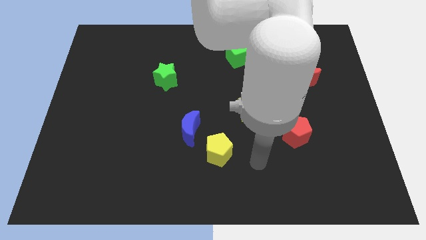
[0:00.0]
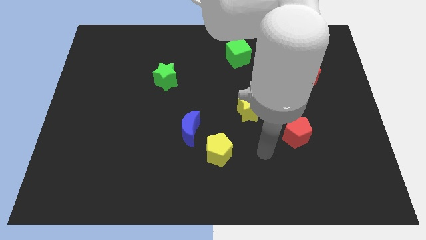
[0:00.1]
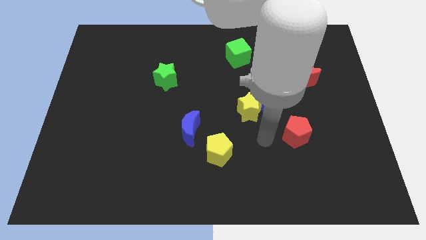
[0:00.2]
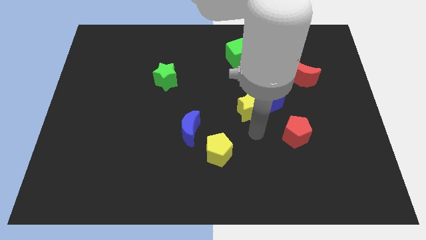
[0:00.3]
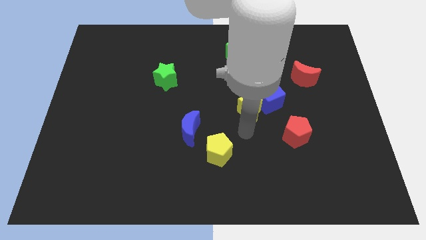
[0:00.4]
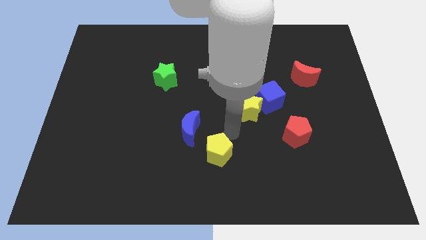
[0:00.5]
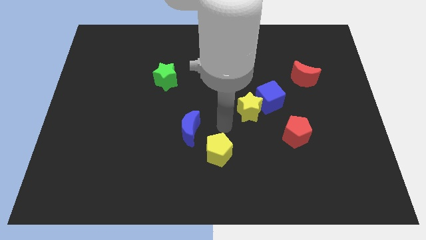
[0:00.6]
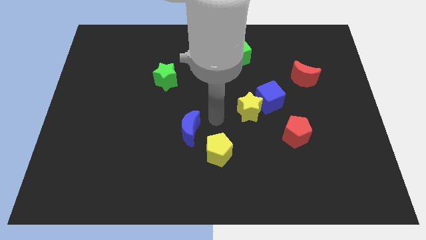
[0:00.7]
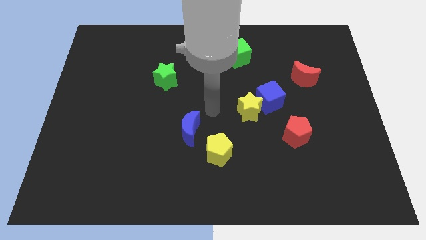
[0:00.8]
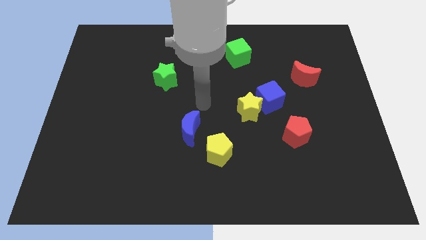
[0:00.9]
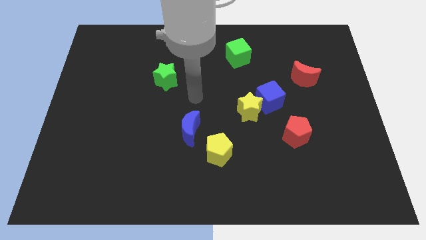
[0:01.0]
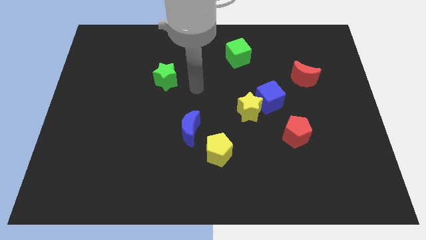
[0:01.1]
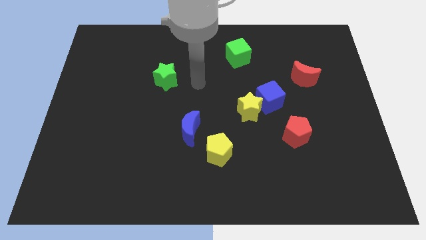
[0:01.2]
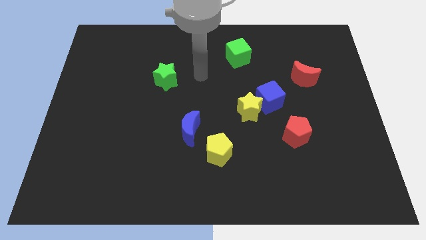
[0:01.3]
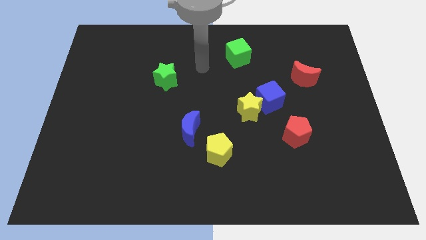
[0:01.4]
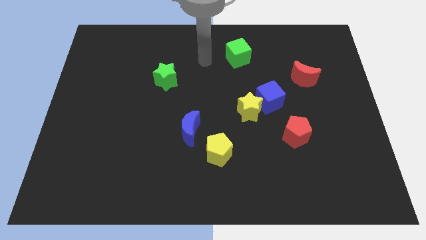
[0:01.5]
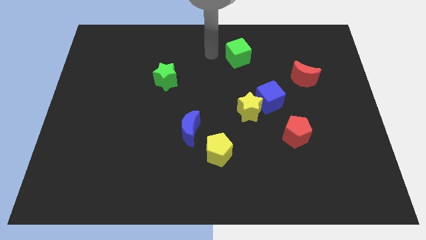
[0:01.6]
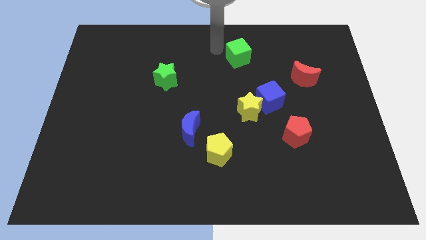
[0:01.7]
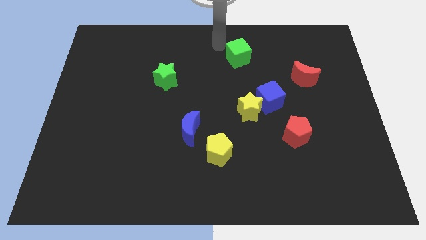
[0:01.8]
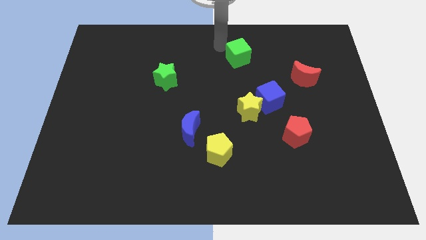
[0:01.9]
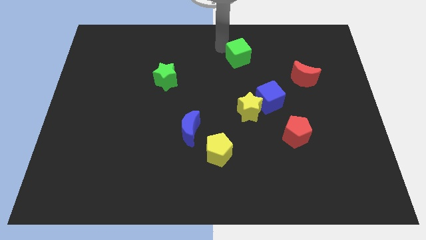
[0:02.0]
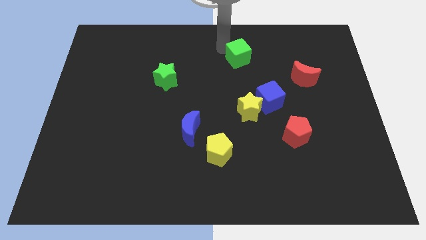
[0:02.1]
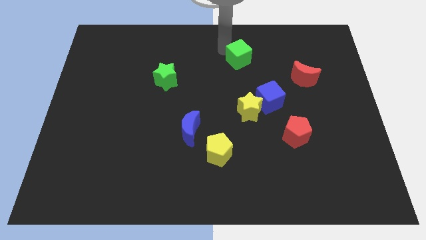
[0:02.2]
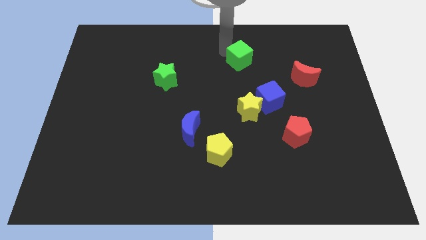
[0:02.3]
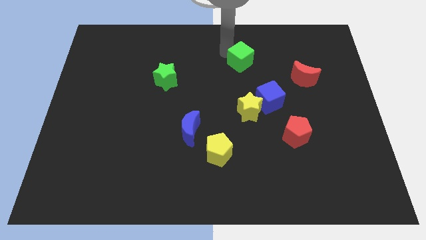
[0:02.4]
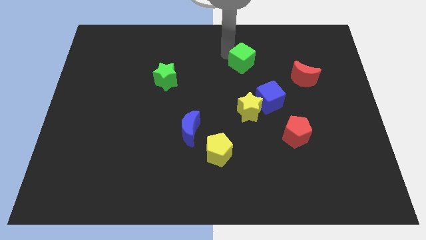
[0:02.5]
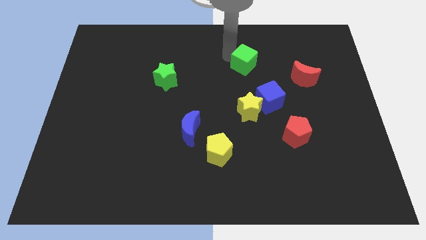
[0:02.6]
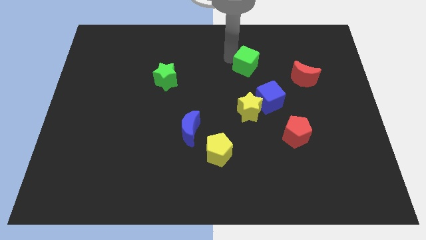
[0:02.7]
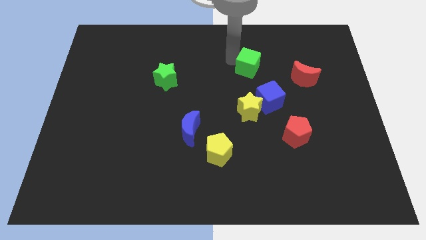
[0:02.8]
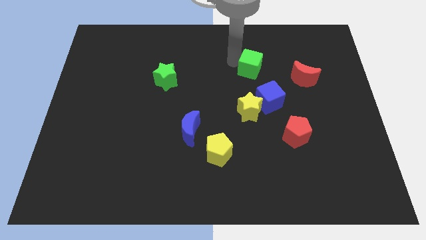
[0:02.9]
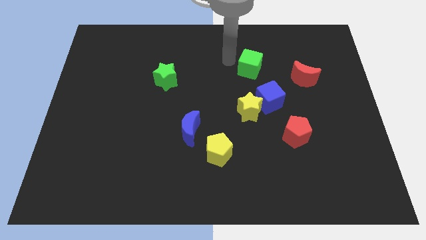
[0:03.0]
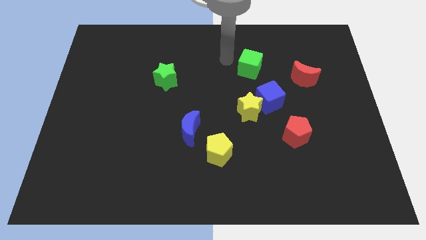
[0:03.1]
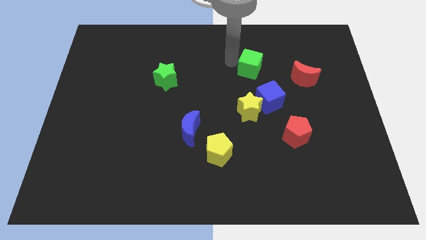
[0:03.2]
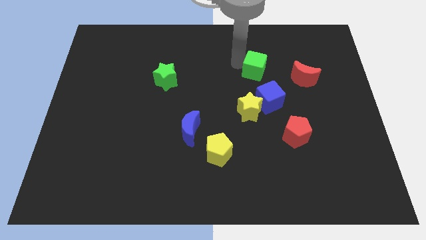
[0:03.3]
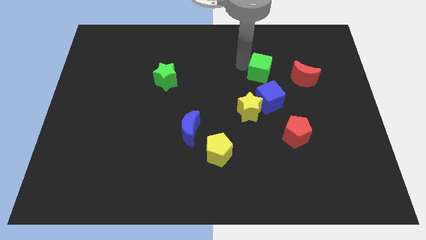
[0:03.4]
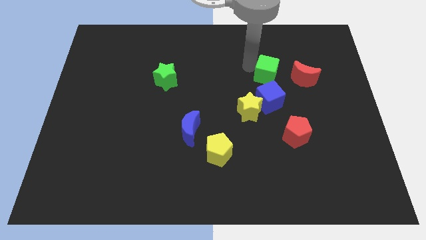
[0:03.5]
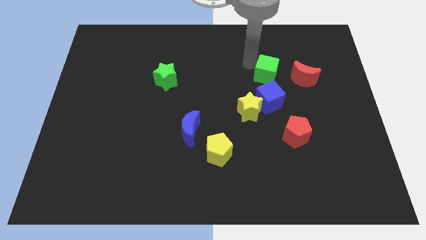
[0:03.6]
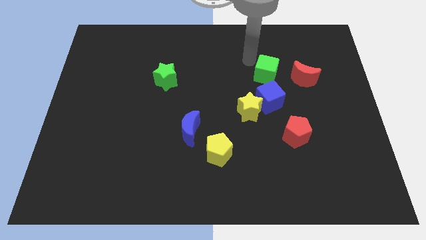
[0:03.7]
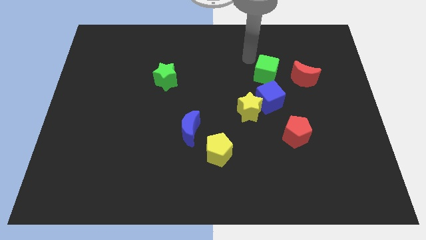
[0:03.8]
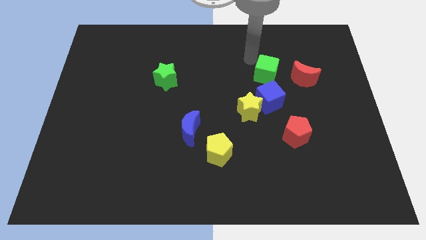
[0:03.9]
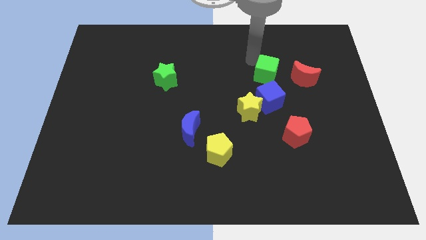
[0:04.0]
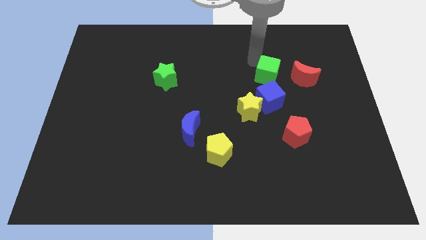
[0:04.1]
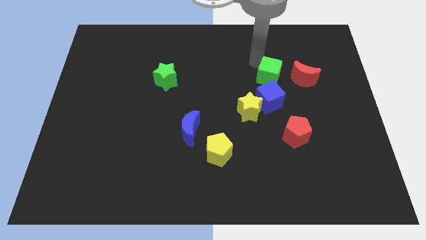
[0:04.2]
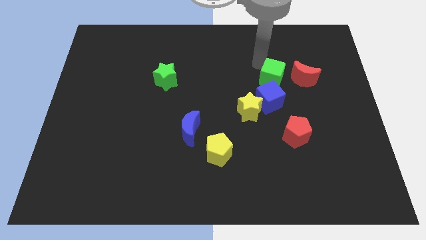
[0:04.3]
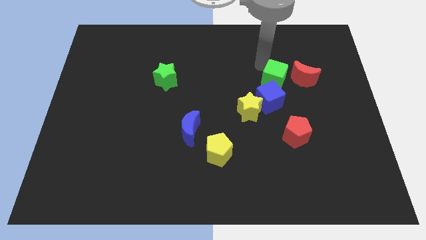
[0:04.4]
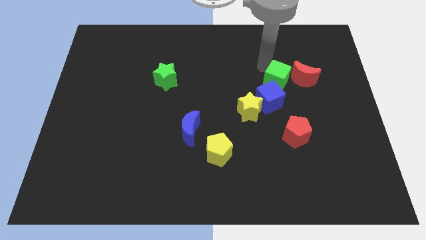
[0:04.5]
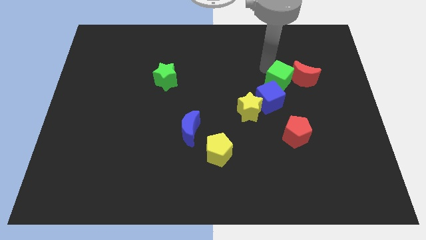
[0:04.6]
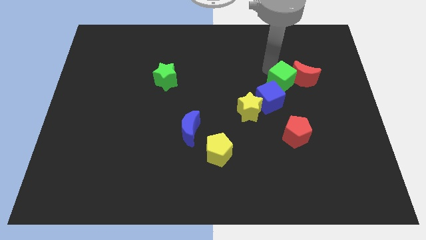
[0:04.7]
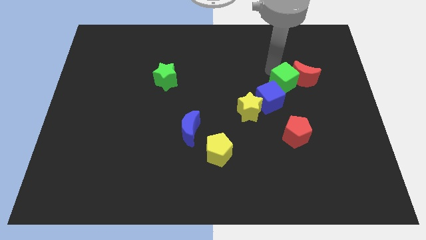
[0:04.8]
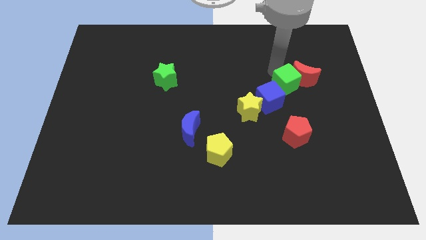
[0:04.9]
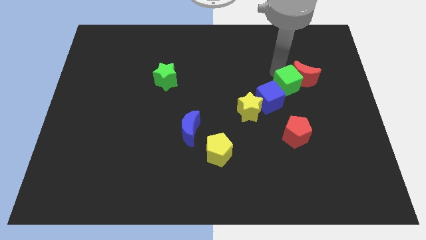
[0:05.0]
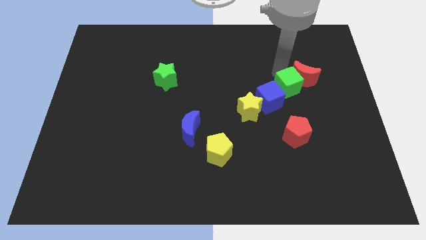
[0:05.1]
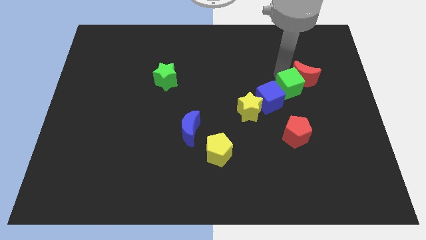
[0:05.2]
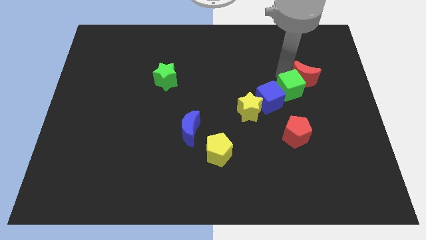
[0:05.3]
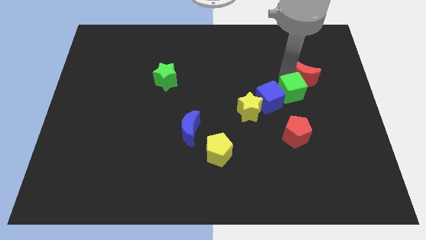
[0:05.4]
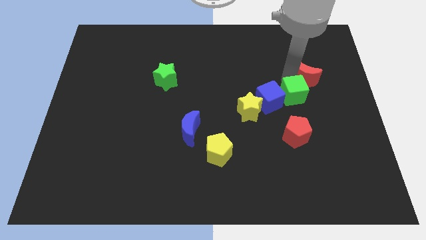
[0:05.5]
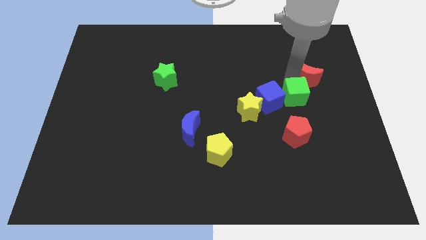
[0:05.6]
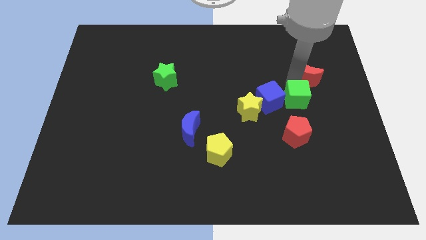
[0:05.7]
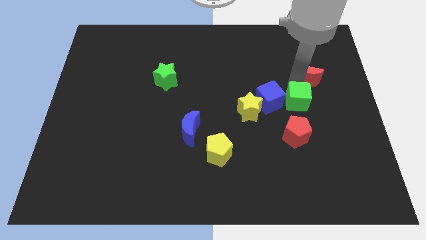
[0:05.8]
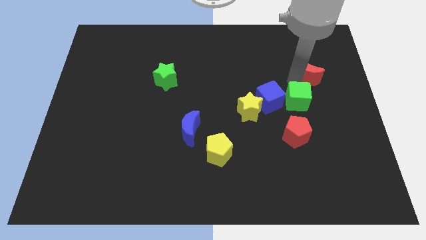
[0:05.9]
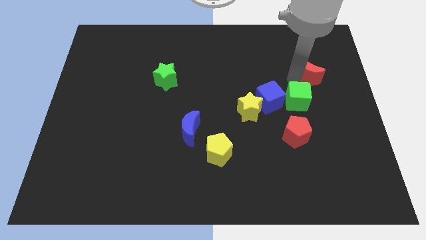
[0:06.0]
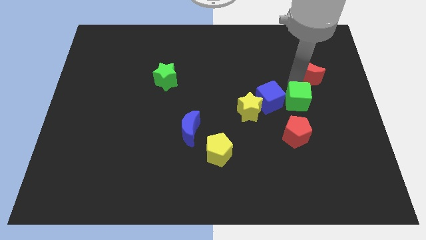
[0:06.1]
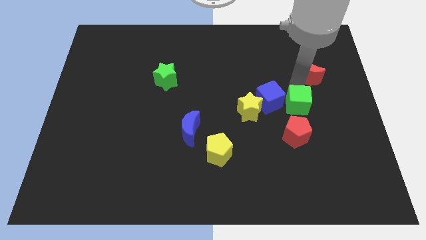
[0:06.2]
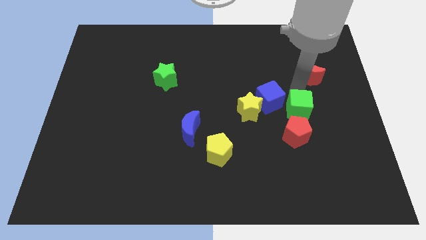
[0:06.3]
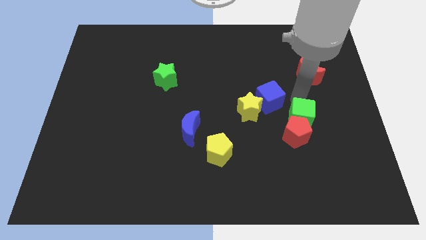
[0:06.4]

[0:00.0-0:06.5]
slide the green cube to the red pentagon

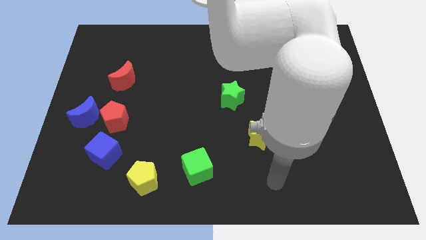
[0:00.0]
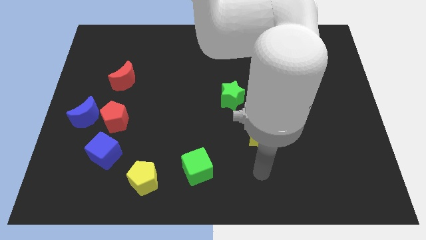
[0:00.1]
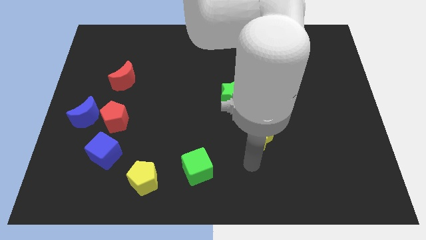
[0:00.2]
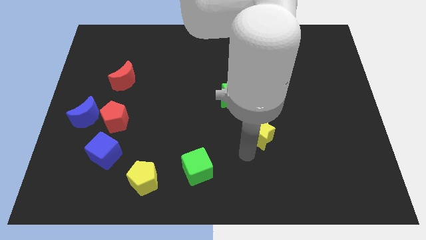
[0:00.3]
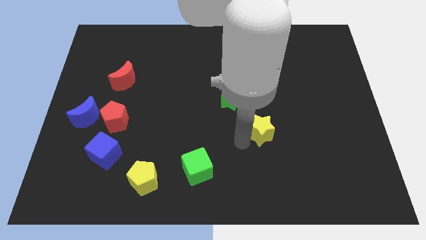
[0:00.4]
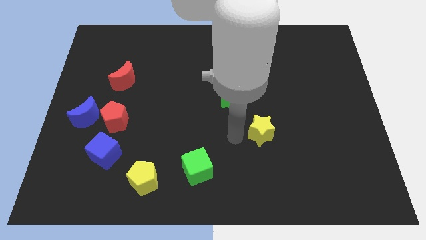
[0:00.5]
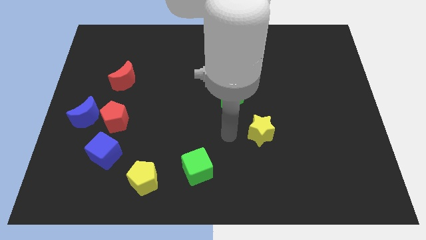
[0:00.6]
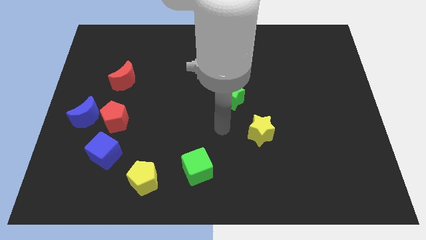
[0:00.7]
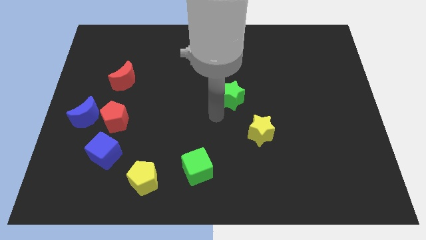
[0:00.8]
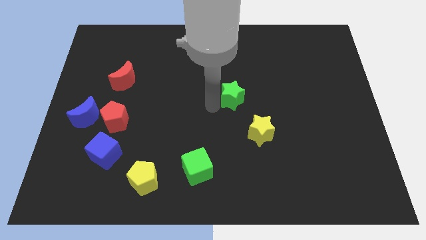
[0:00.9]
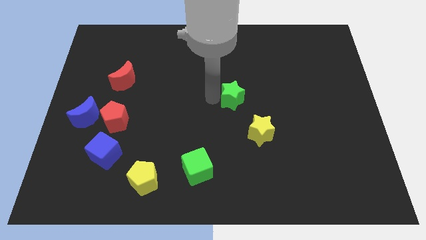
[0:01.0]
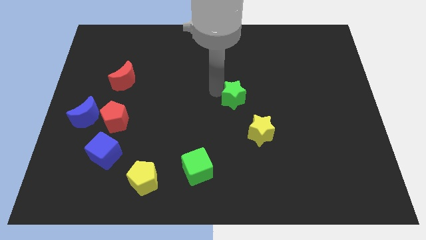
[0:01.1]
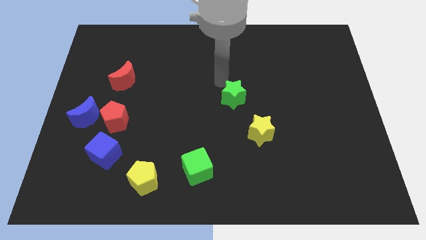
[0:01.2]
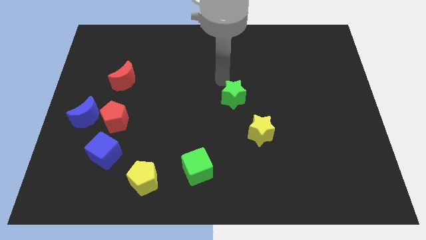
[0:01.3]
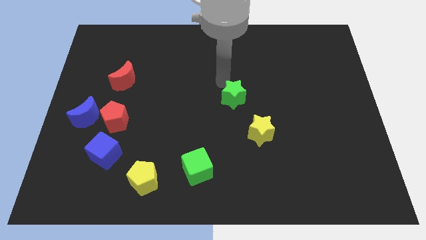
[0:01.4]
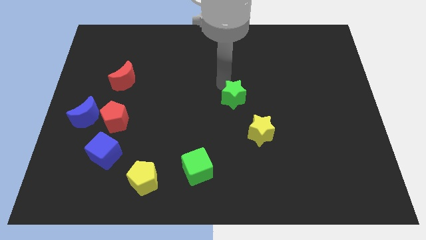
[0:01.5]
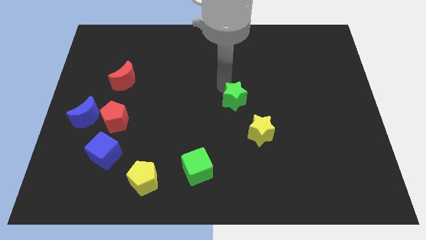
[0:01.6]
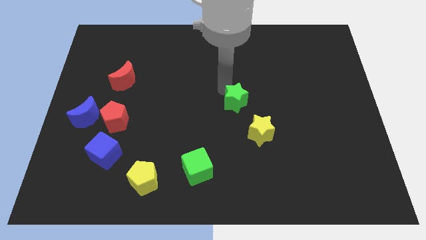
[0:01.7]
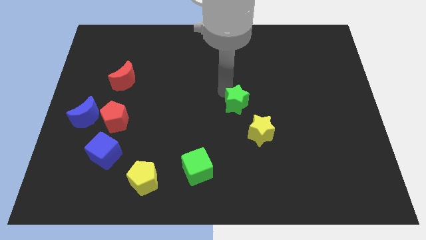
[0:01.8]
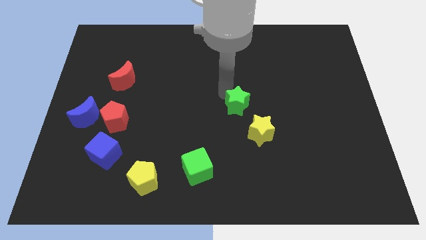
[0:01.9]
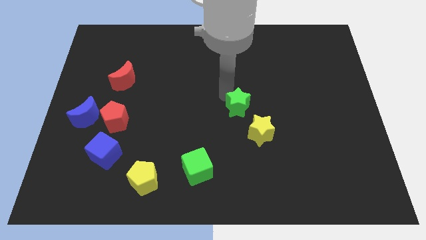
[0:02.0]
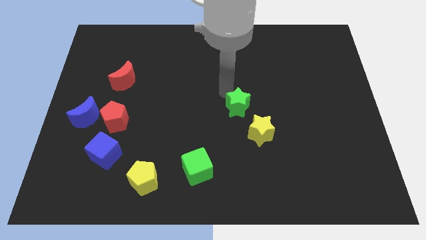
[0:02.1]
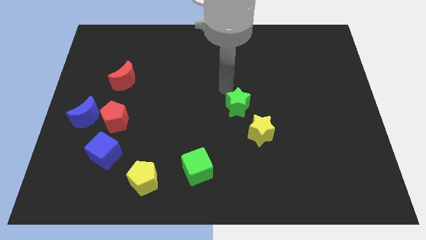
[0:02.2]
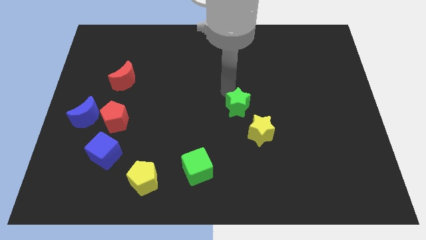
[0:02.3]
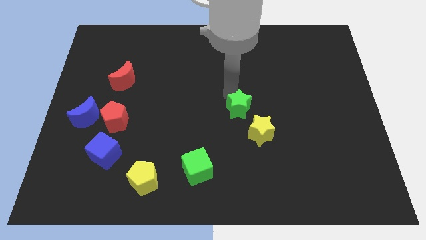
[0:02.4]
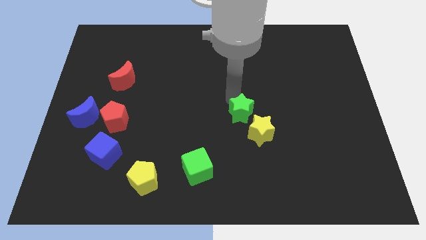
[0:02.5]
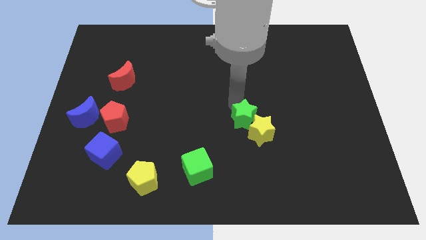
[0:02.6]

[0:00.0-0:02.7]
push the green star close to the yellow star
